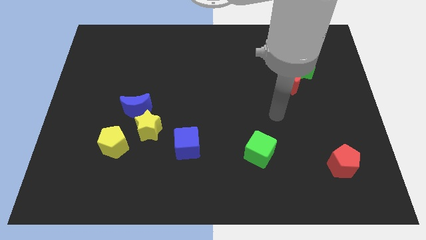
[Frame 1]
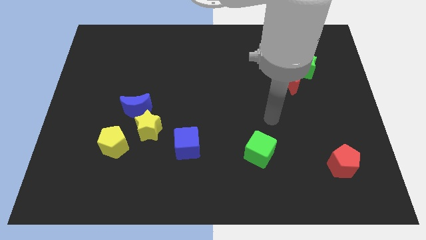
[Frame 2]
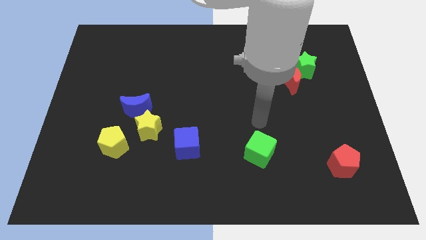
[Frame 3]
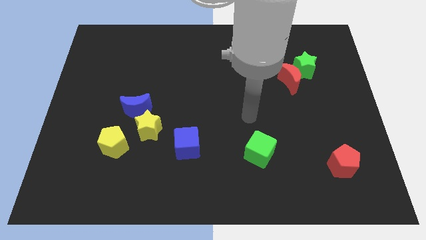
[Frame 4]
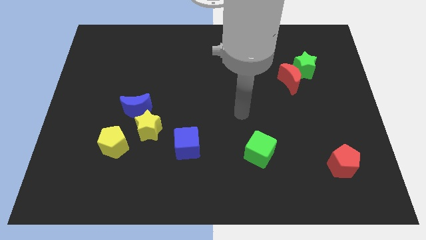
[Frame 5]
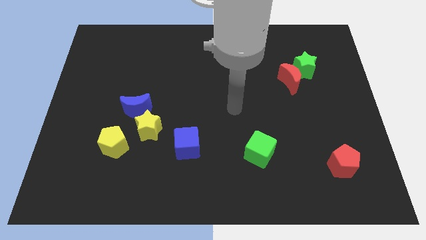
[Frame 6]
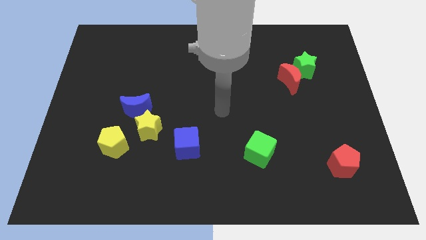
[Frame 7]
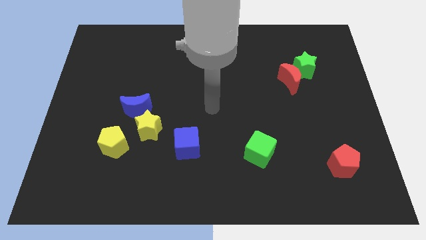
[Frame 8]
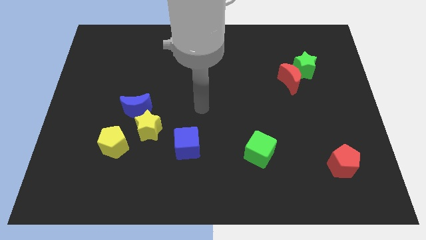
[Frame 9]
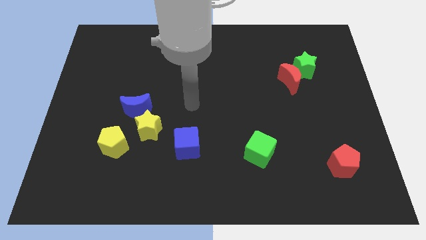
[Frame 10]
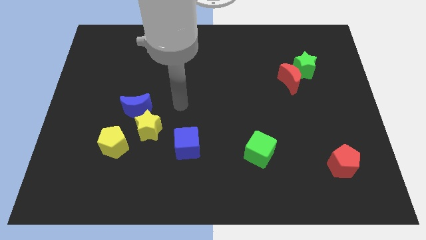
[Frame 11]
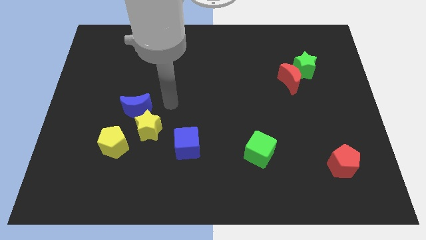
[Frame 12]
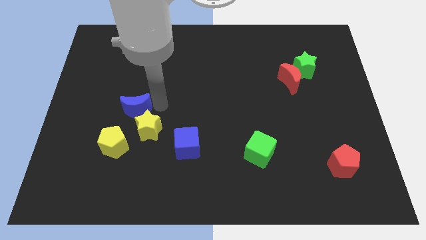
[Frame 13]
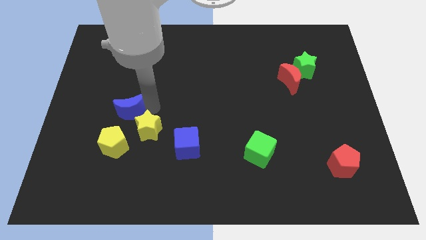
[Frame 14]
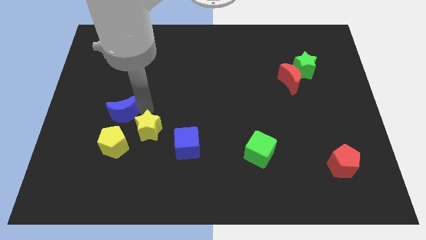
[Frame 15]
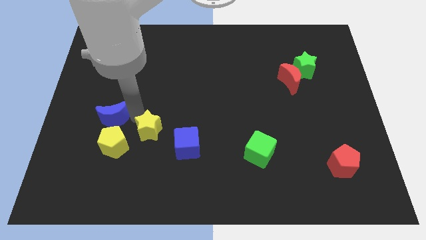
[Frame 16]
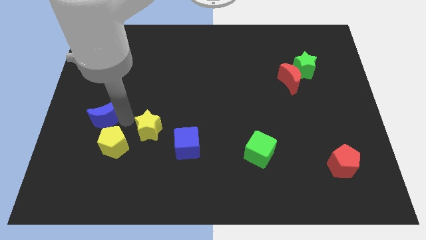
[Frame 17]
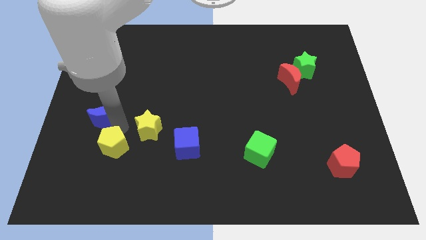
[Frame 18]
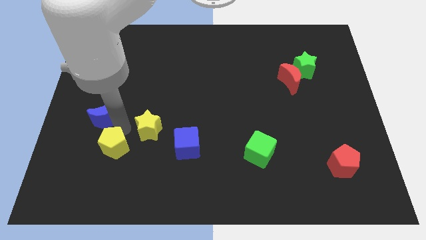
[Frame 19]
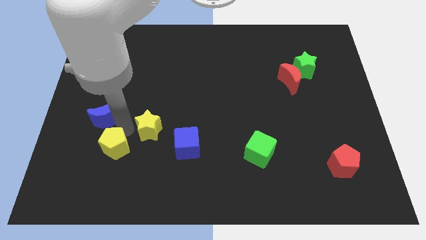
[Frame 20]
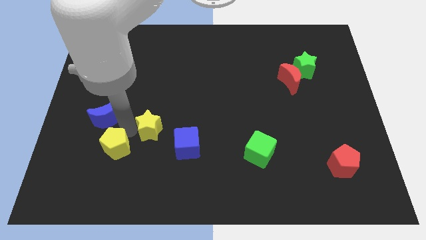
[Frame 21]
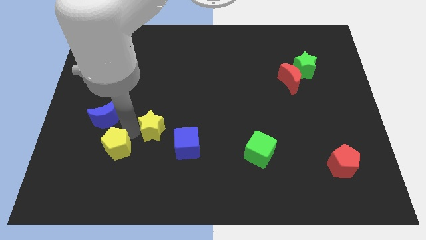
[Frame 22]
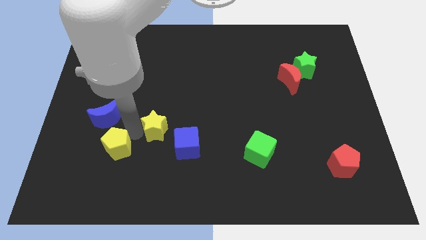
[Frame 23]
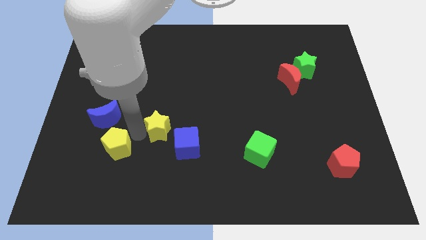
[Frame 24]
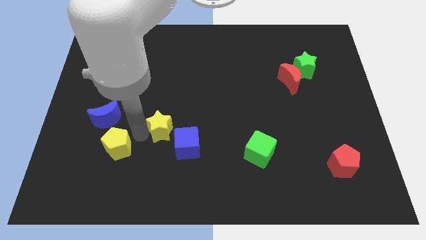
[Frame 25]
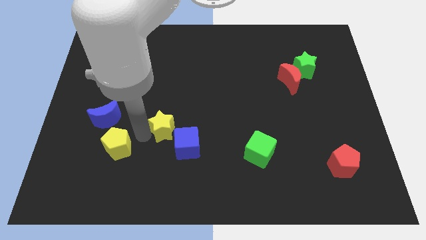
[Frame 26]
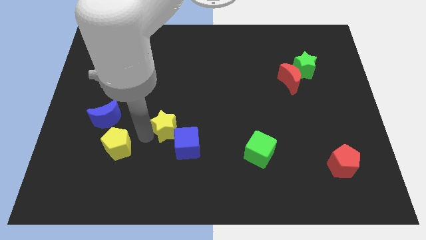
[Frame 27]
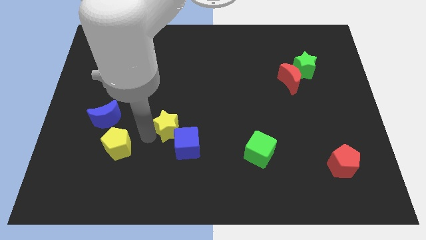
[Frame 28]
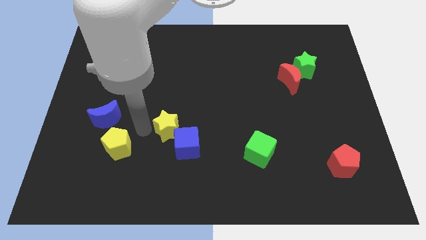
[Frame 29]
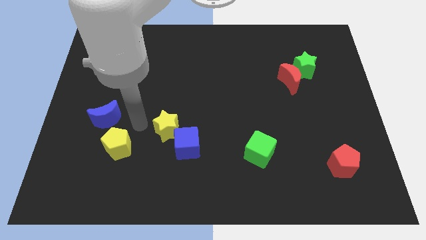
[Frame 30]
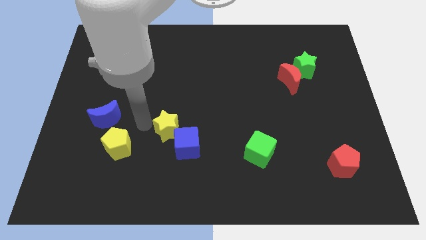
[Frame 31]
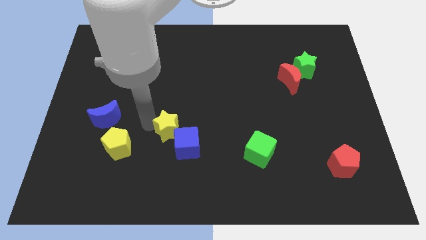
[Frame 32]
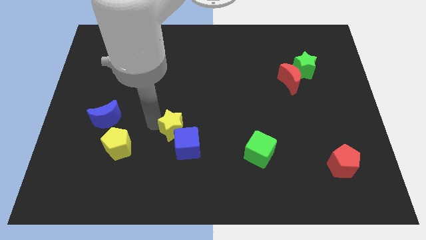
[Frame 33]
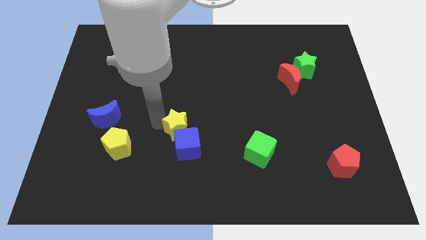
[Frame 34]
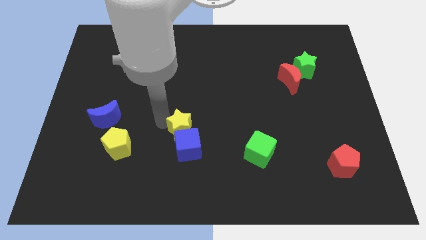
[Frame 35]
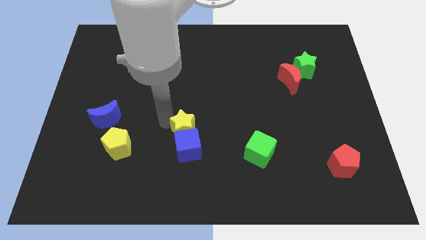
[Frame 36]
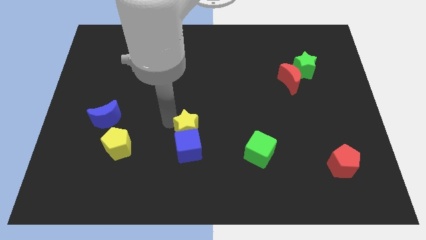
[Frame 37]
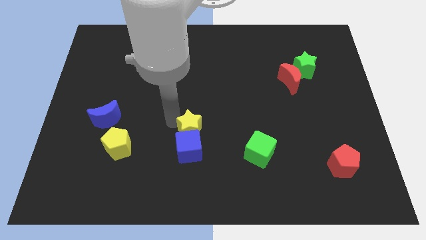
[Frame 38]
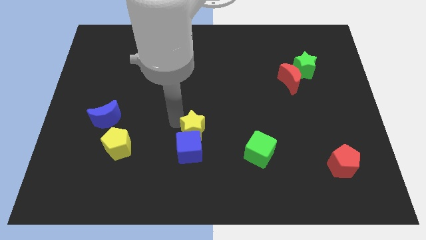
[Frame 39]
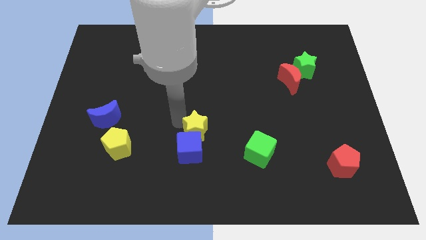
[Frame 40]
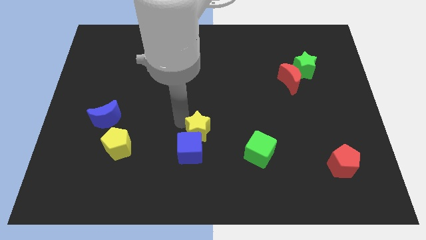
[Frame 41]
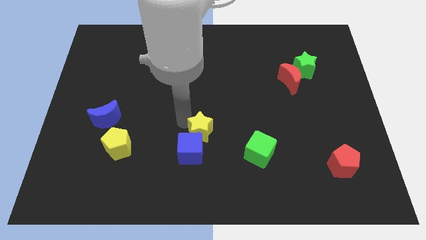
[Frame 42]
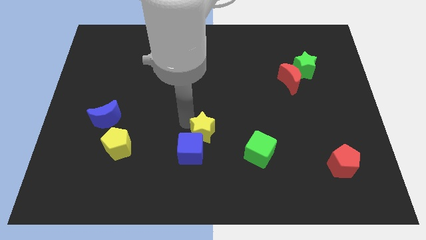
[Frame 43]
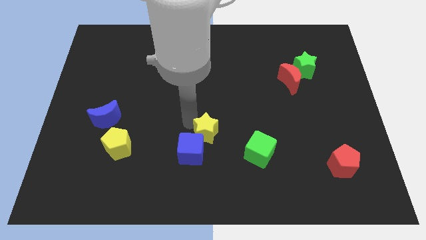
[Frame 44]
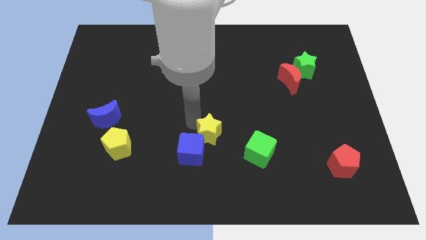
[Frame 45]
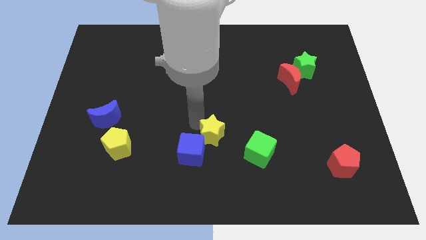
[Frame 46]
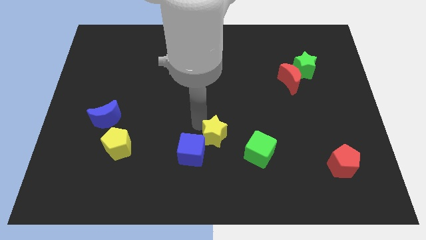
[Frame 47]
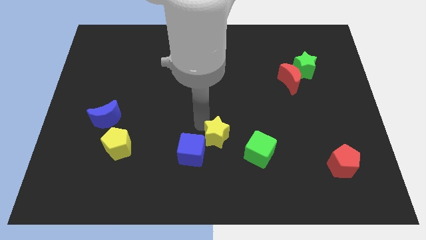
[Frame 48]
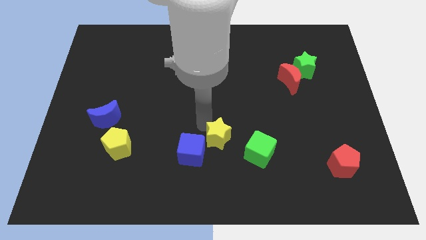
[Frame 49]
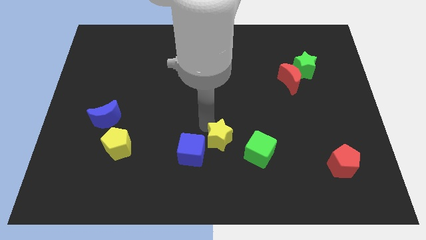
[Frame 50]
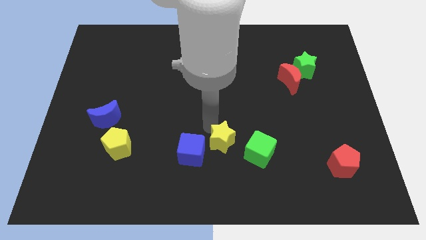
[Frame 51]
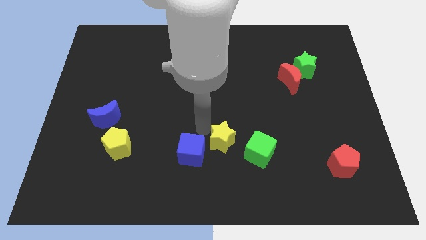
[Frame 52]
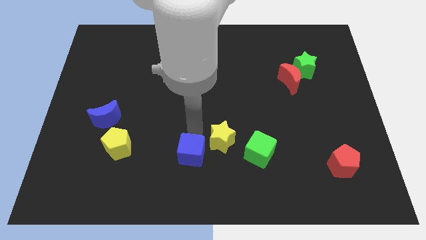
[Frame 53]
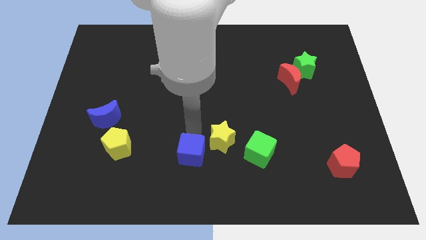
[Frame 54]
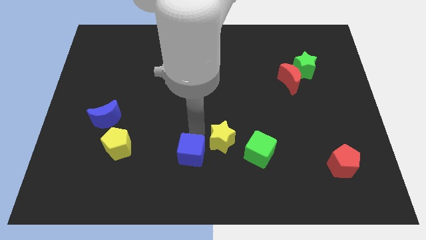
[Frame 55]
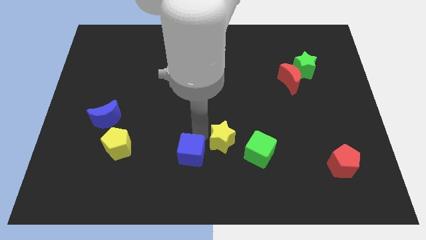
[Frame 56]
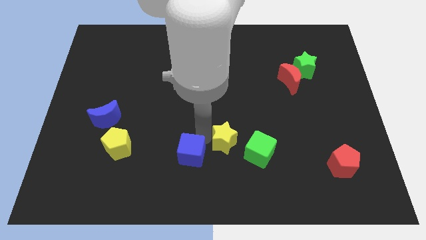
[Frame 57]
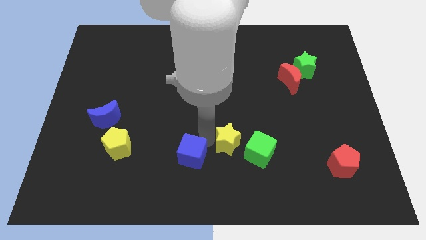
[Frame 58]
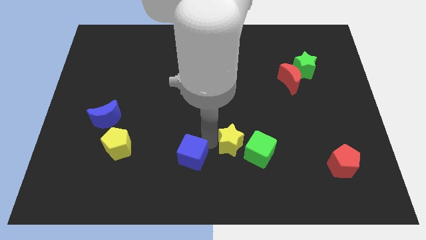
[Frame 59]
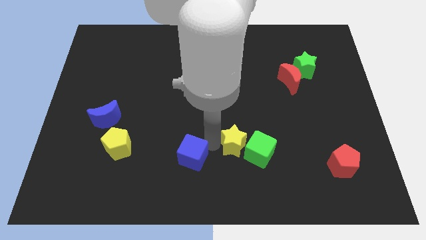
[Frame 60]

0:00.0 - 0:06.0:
move the yellow star to the green cube

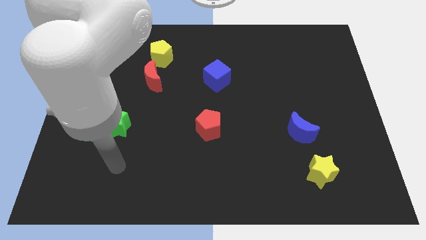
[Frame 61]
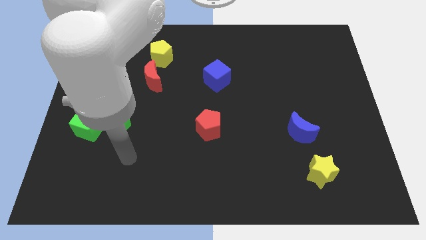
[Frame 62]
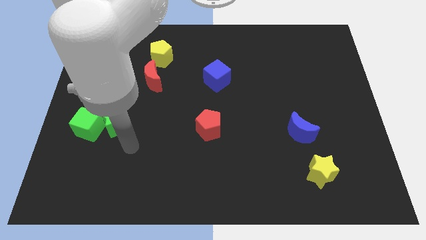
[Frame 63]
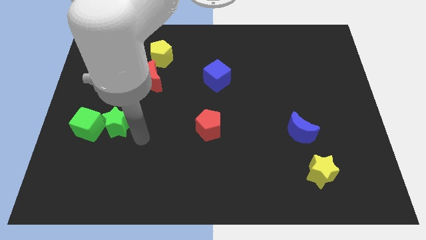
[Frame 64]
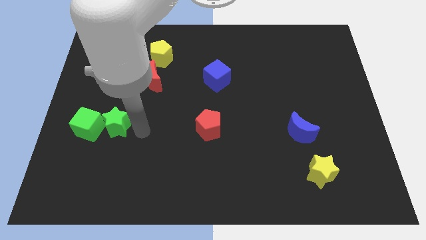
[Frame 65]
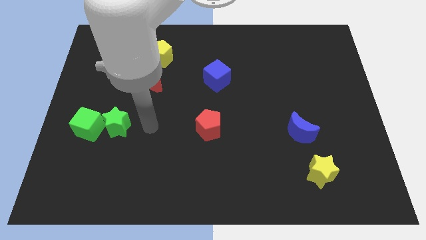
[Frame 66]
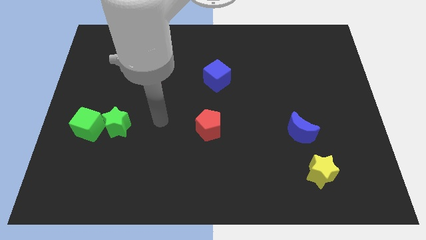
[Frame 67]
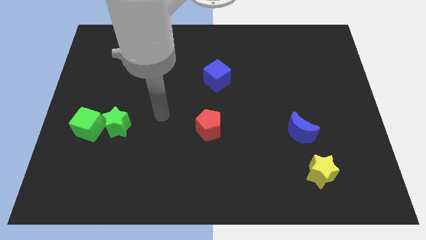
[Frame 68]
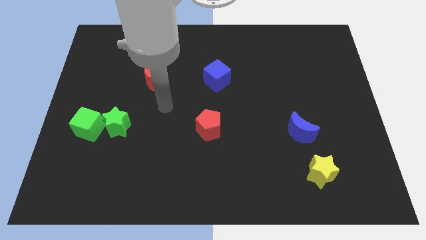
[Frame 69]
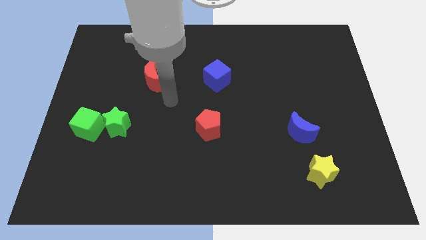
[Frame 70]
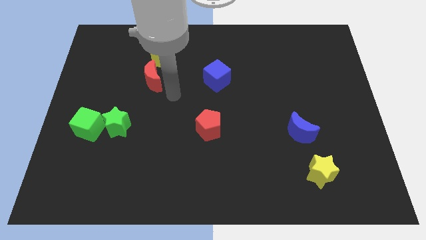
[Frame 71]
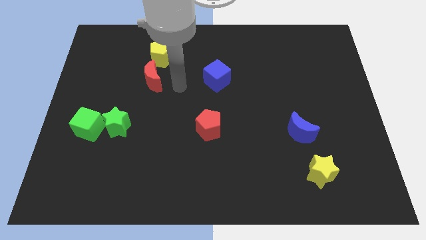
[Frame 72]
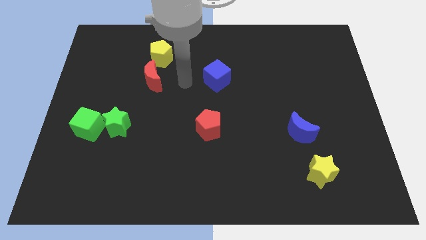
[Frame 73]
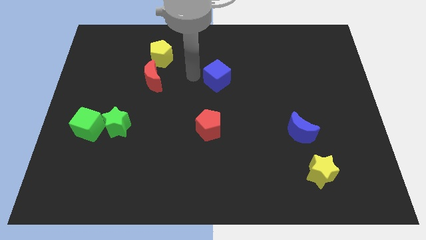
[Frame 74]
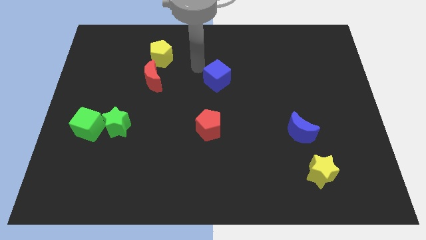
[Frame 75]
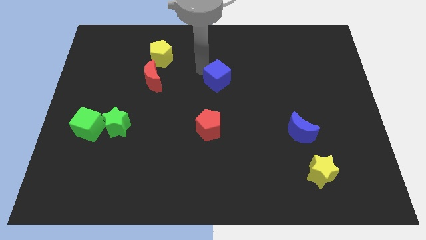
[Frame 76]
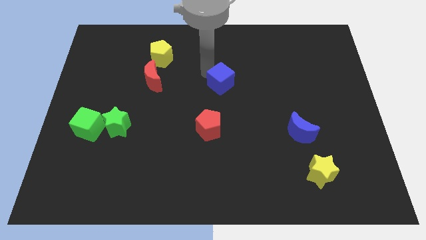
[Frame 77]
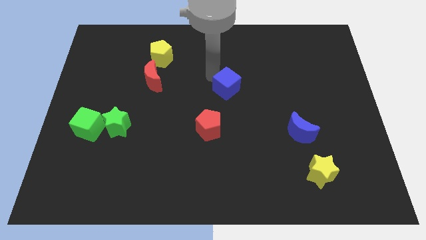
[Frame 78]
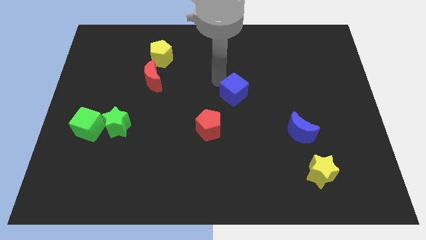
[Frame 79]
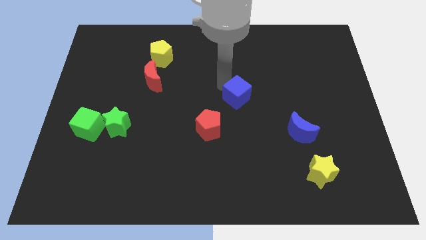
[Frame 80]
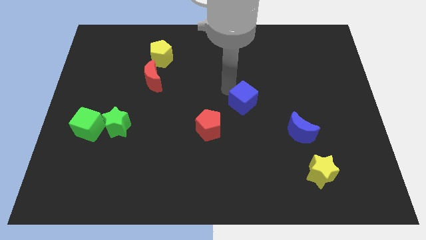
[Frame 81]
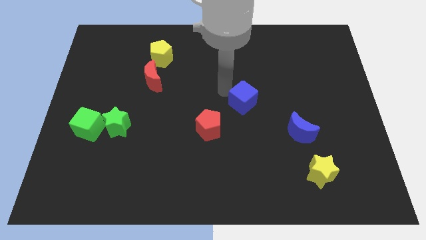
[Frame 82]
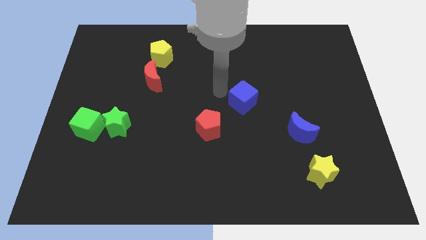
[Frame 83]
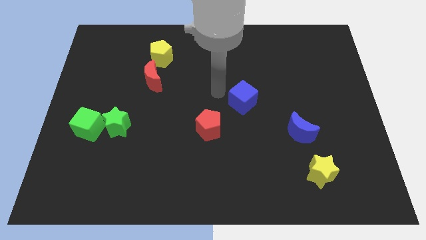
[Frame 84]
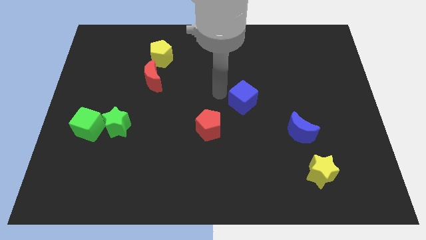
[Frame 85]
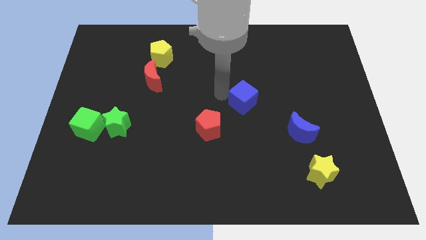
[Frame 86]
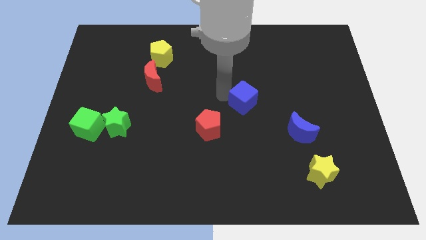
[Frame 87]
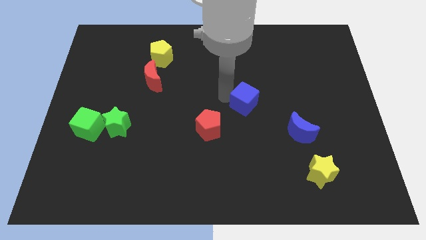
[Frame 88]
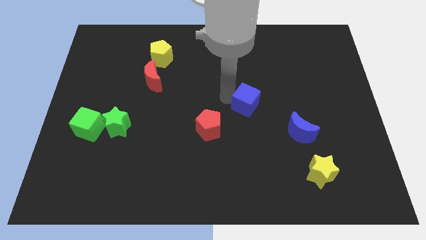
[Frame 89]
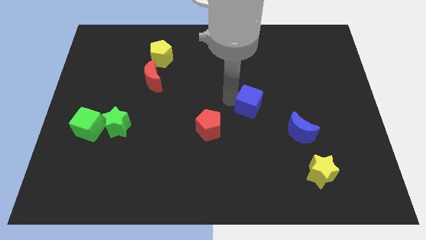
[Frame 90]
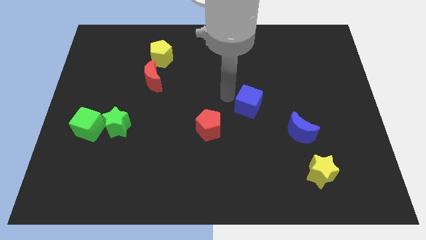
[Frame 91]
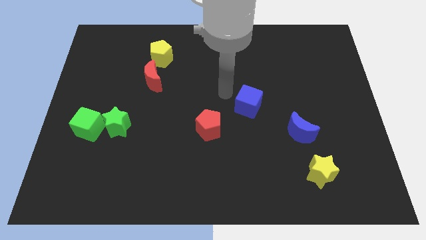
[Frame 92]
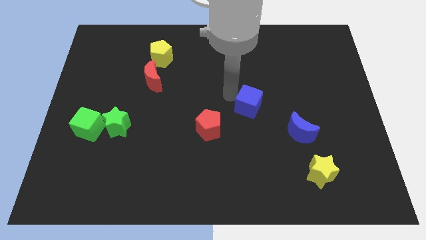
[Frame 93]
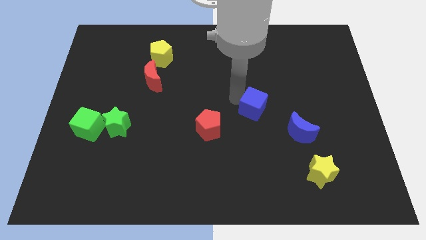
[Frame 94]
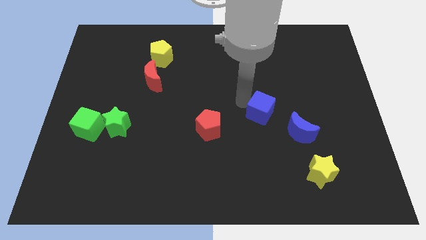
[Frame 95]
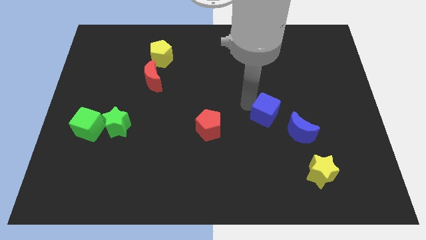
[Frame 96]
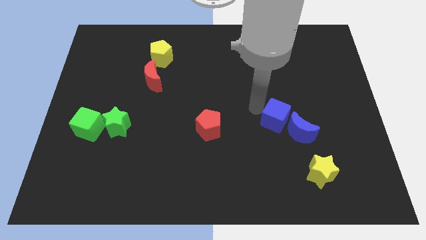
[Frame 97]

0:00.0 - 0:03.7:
push the blue cube close to the blue moon
